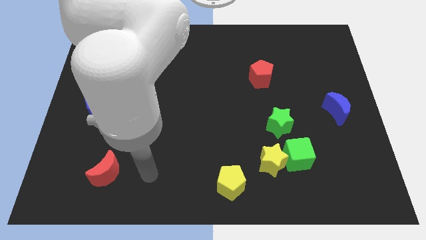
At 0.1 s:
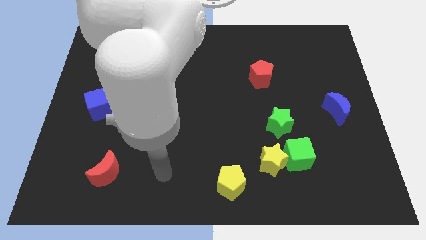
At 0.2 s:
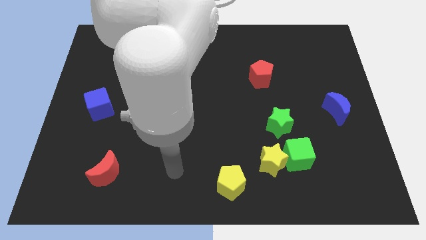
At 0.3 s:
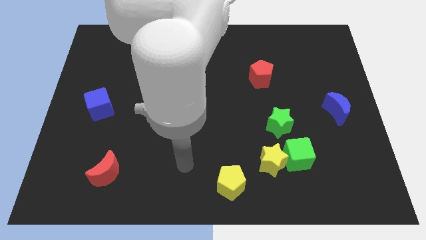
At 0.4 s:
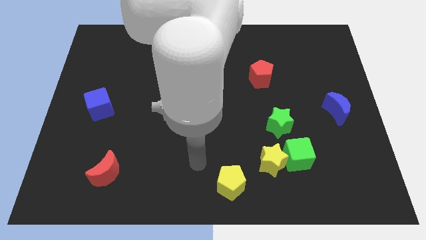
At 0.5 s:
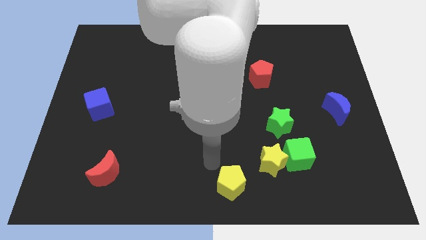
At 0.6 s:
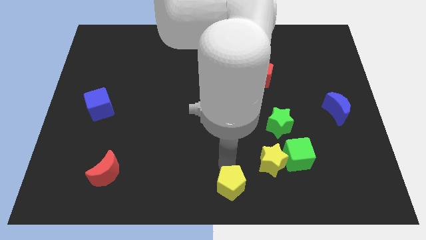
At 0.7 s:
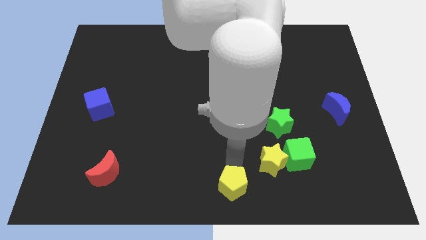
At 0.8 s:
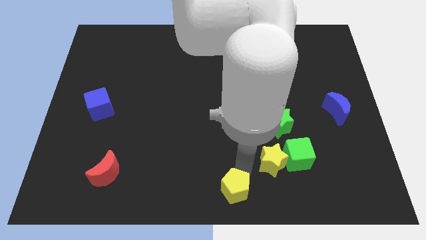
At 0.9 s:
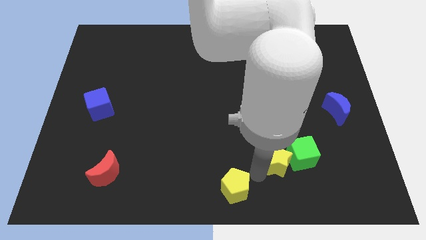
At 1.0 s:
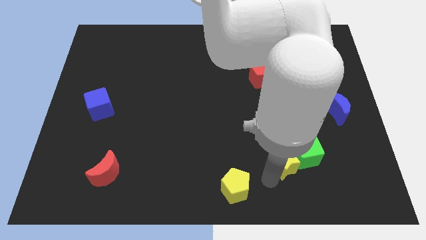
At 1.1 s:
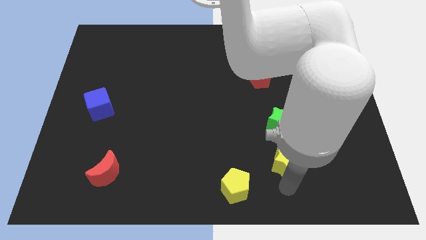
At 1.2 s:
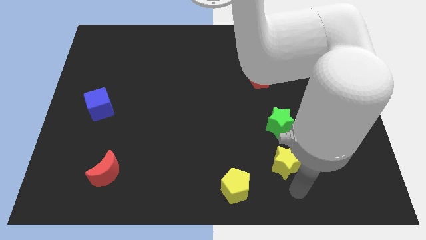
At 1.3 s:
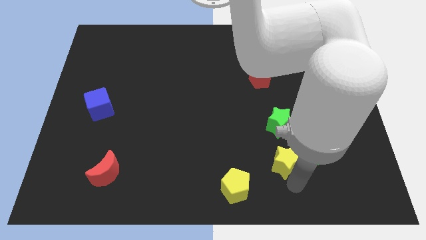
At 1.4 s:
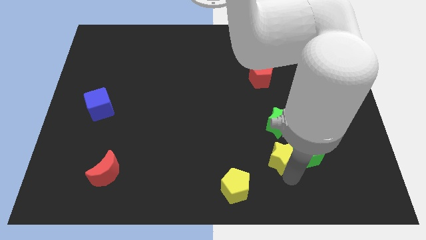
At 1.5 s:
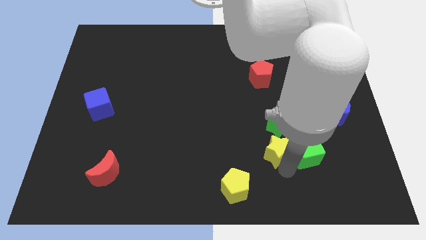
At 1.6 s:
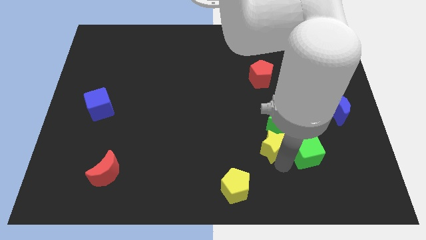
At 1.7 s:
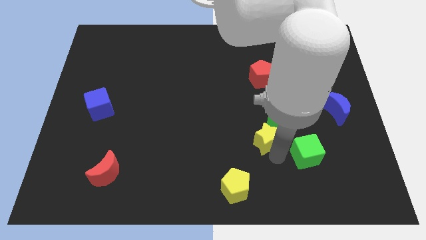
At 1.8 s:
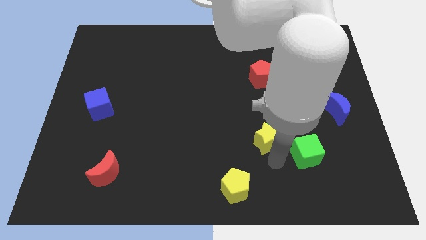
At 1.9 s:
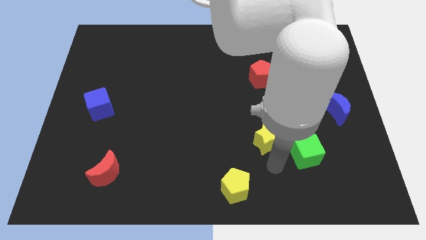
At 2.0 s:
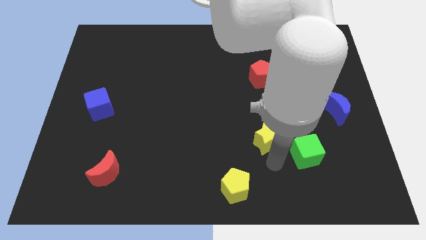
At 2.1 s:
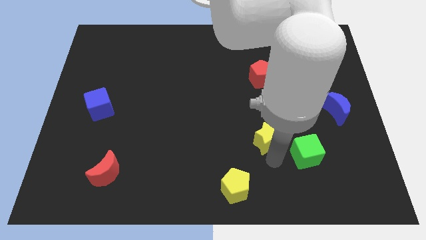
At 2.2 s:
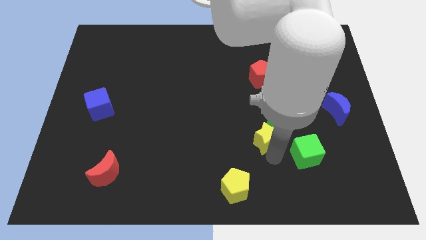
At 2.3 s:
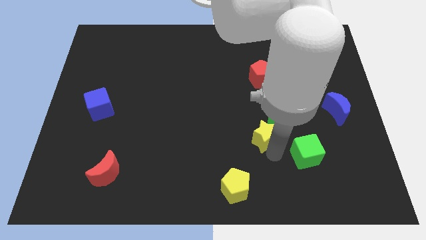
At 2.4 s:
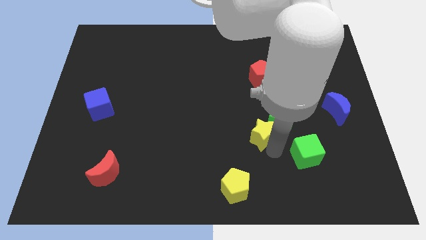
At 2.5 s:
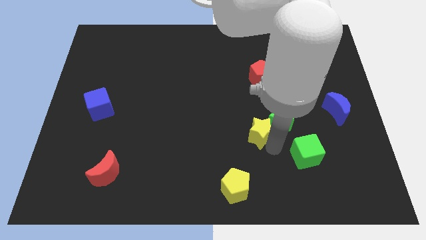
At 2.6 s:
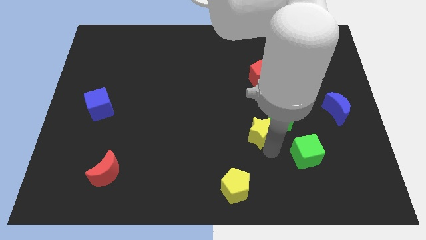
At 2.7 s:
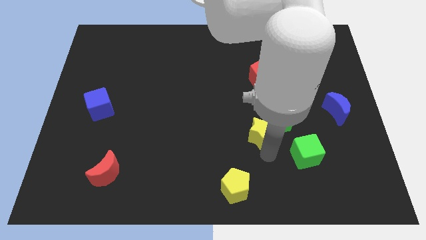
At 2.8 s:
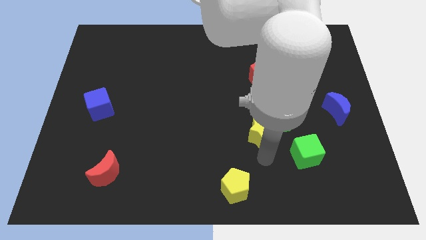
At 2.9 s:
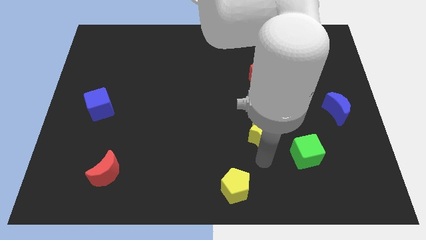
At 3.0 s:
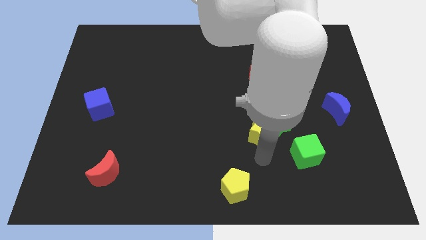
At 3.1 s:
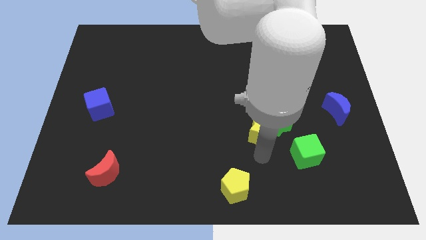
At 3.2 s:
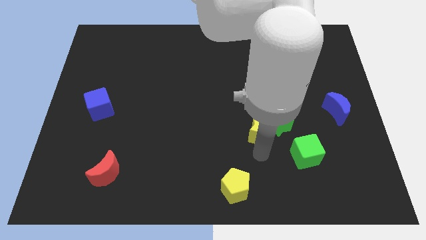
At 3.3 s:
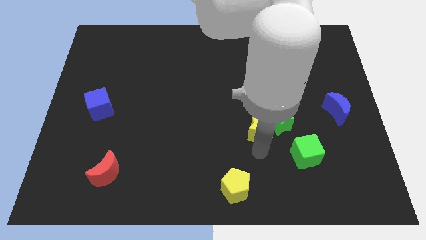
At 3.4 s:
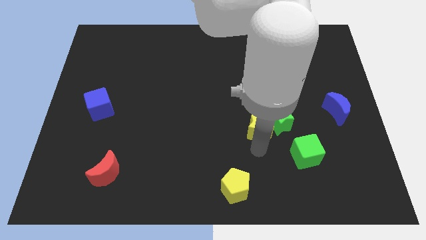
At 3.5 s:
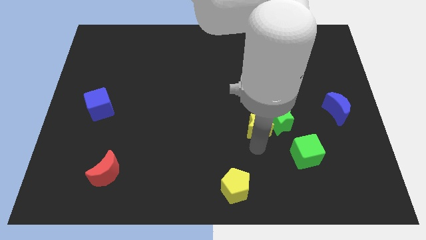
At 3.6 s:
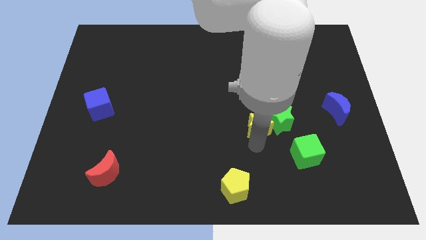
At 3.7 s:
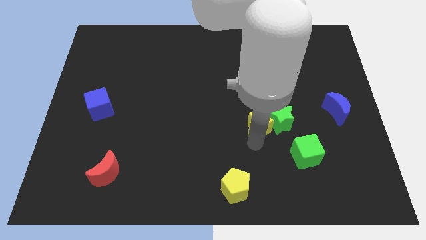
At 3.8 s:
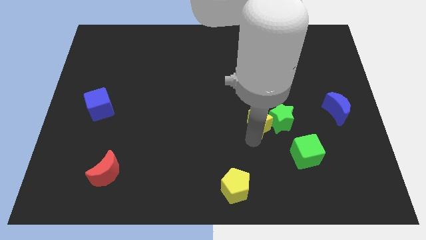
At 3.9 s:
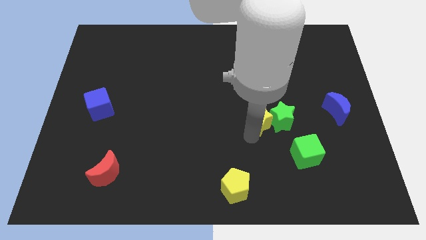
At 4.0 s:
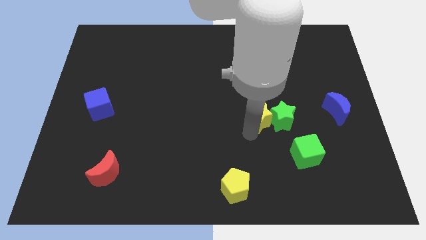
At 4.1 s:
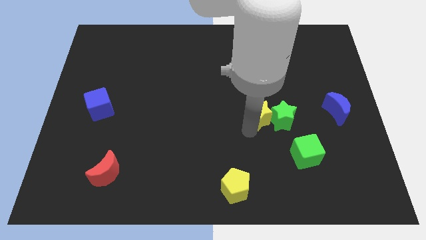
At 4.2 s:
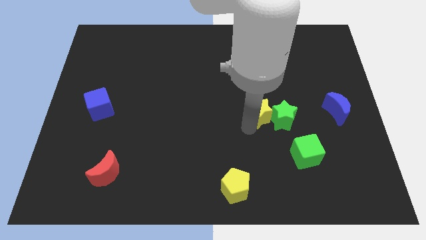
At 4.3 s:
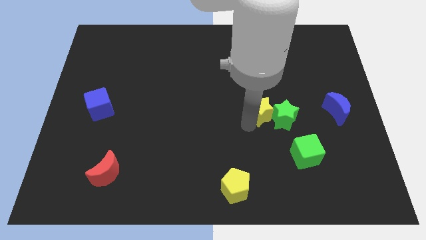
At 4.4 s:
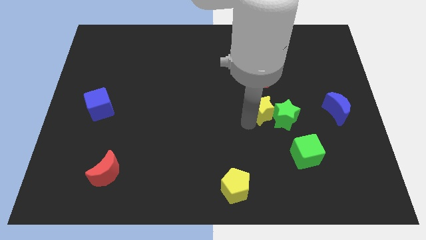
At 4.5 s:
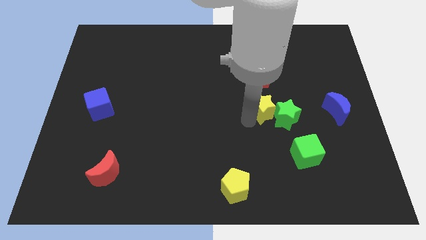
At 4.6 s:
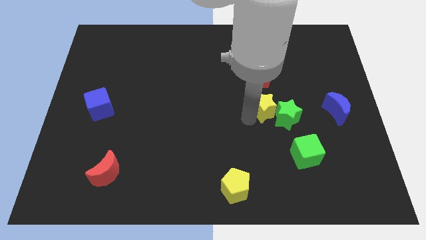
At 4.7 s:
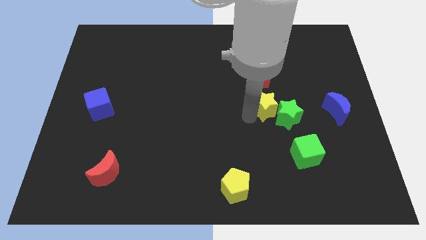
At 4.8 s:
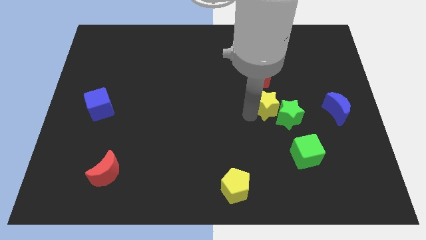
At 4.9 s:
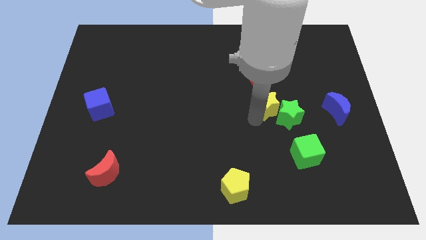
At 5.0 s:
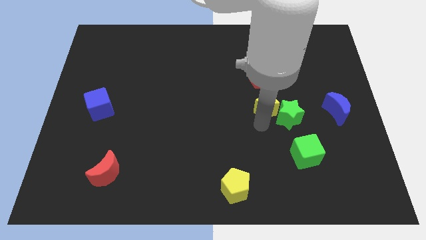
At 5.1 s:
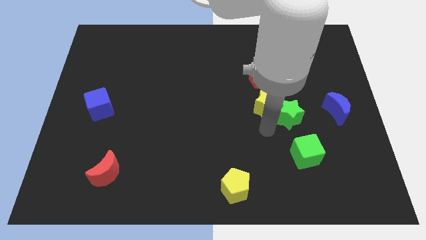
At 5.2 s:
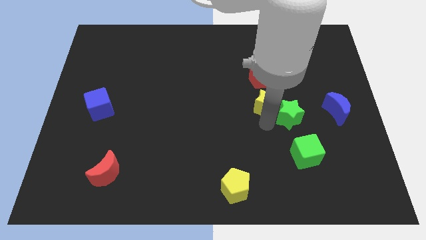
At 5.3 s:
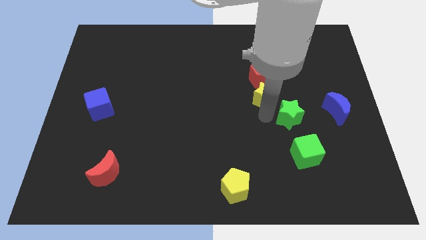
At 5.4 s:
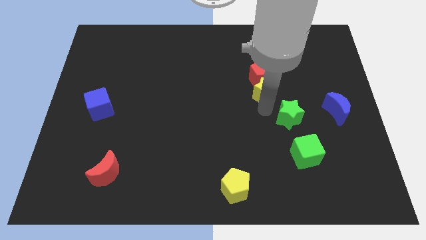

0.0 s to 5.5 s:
move the yellow star close to the red pentagon

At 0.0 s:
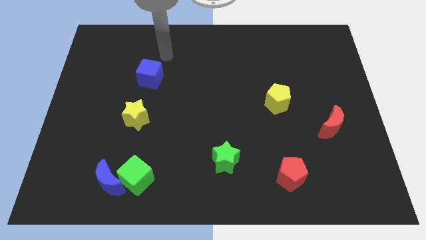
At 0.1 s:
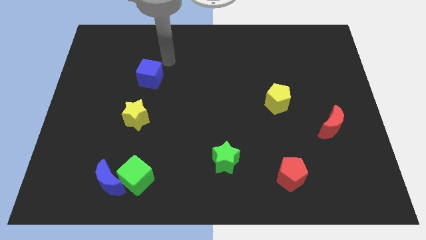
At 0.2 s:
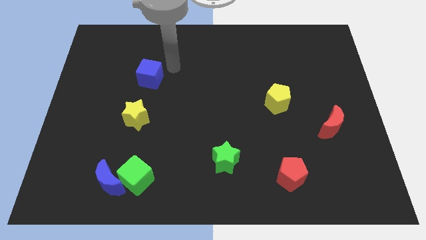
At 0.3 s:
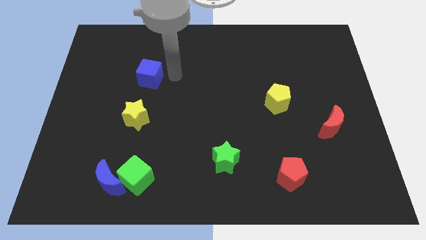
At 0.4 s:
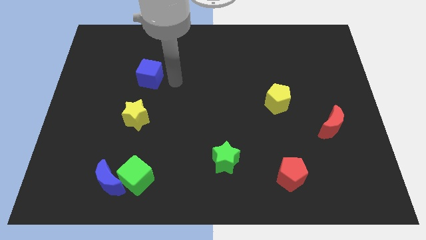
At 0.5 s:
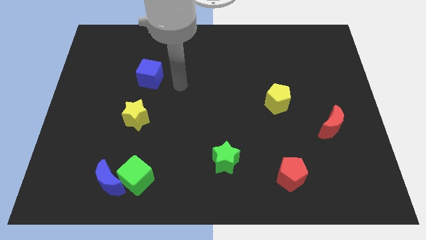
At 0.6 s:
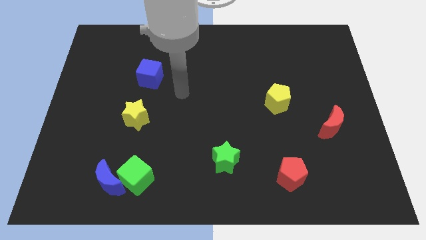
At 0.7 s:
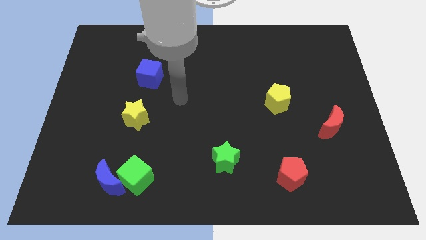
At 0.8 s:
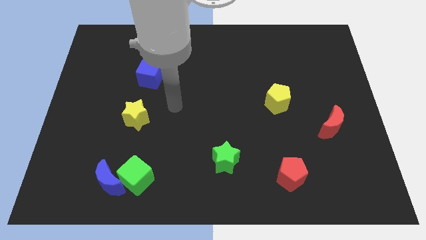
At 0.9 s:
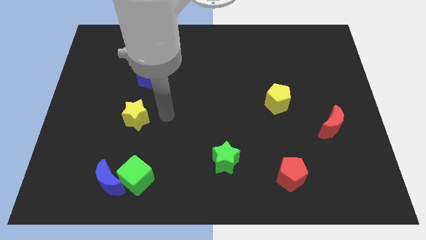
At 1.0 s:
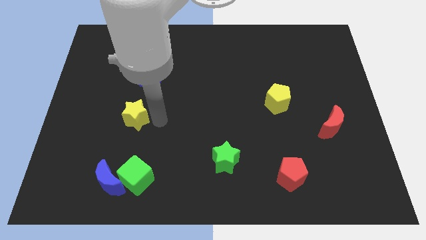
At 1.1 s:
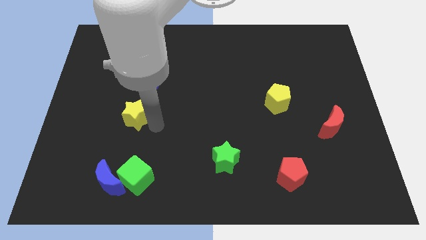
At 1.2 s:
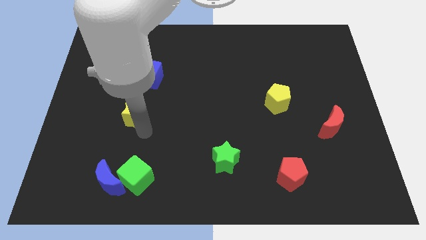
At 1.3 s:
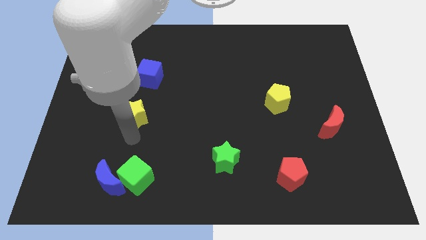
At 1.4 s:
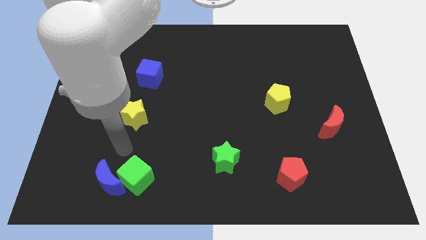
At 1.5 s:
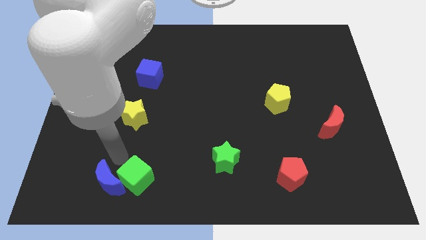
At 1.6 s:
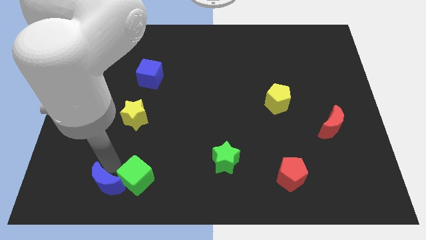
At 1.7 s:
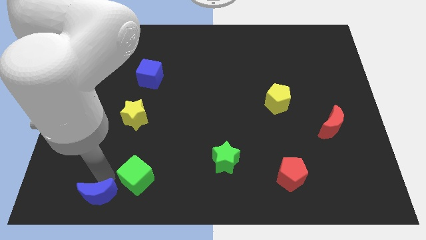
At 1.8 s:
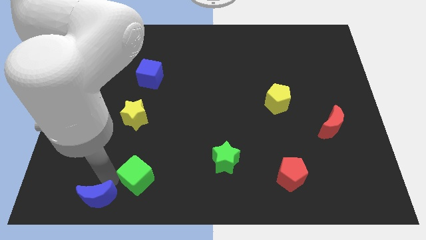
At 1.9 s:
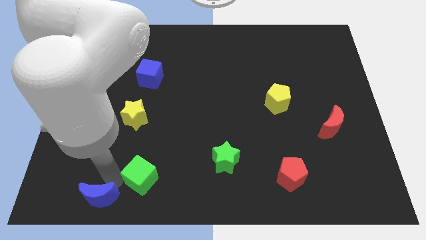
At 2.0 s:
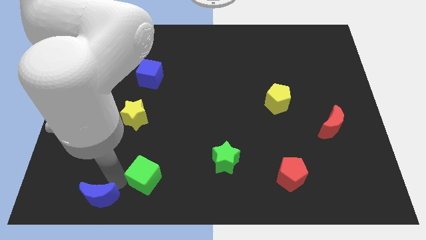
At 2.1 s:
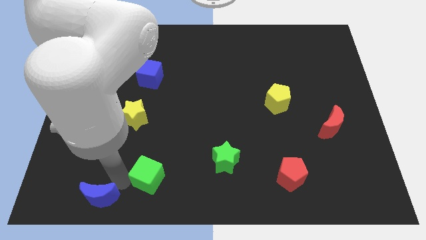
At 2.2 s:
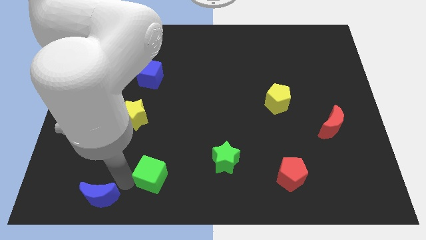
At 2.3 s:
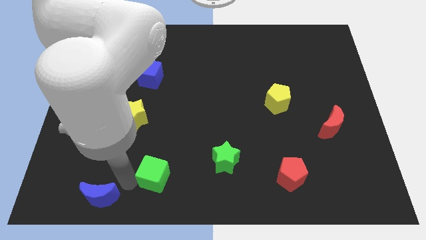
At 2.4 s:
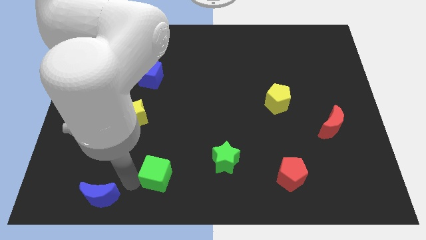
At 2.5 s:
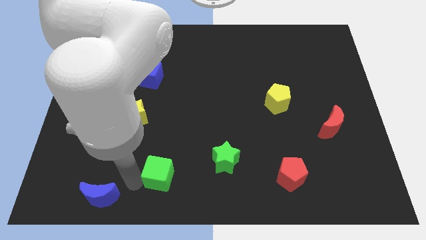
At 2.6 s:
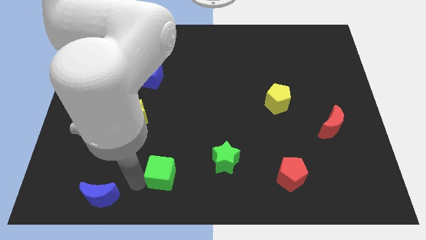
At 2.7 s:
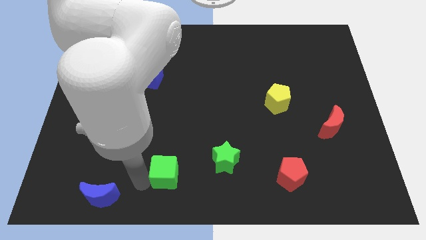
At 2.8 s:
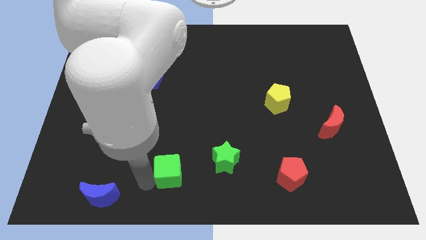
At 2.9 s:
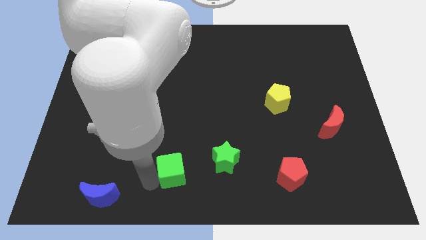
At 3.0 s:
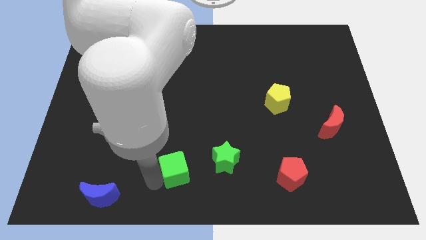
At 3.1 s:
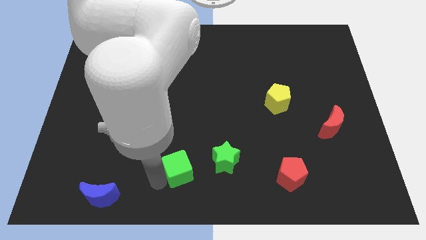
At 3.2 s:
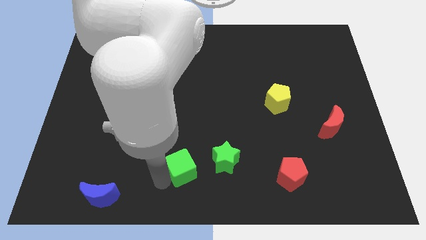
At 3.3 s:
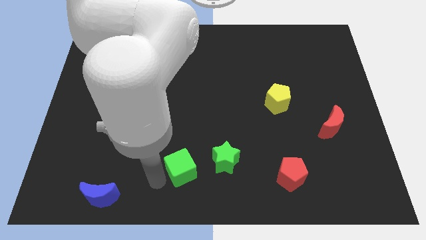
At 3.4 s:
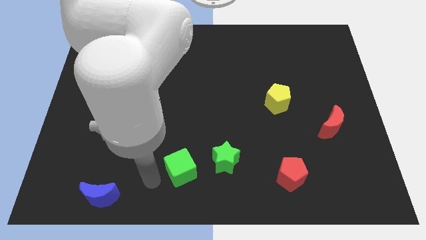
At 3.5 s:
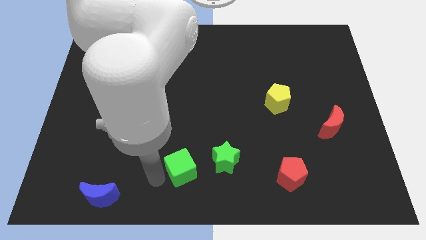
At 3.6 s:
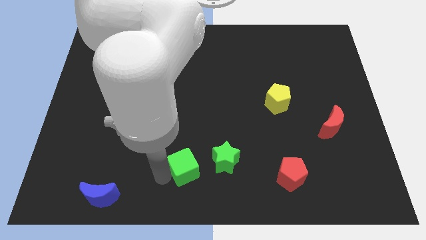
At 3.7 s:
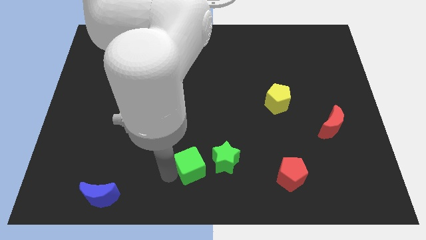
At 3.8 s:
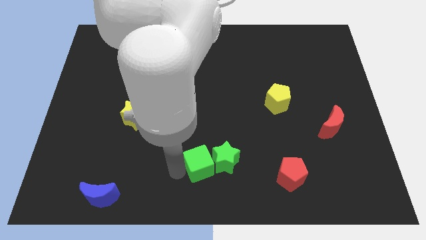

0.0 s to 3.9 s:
put the green cube next to the green star
